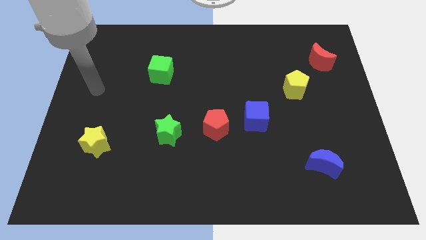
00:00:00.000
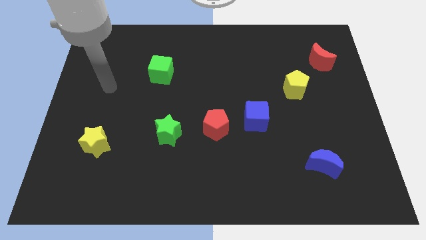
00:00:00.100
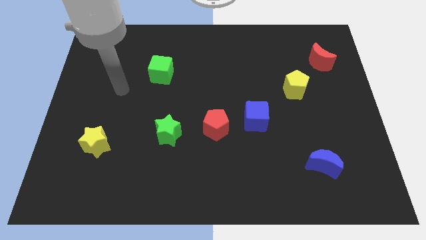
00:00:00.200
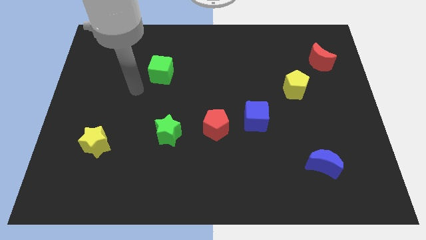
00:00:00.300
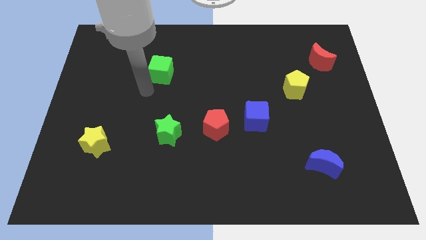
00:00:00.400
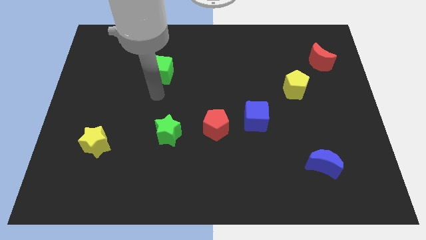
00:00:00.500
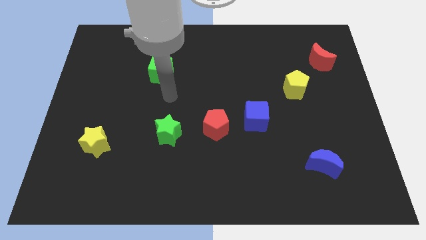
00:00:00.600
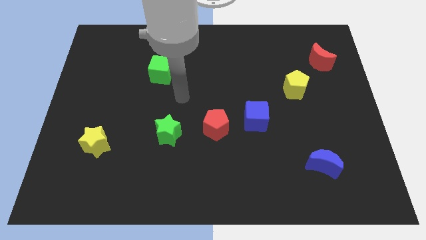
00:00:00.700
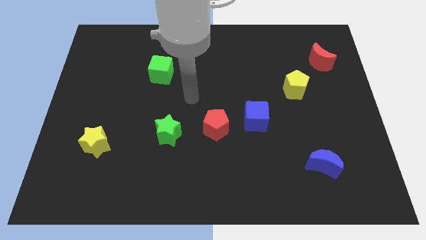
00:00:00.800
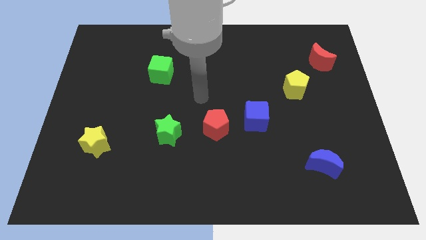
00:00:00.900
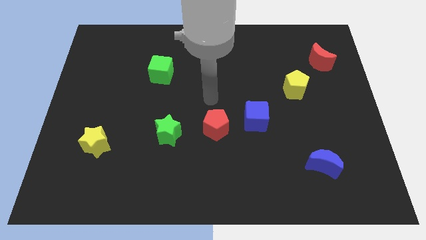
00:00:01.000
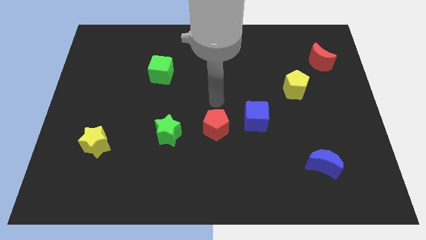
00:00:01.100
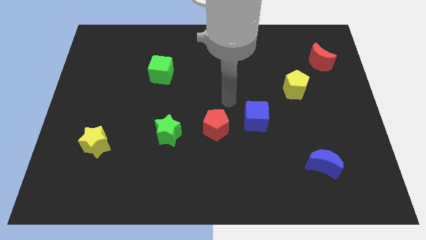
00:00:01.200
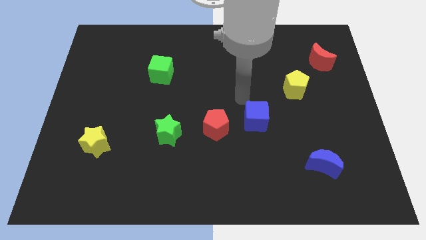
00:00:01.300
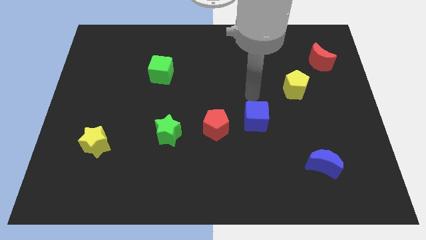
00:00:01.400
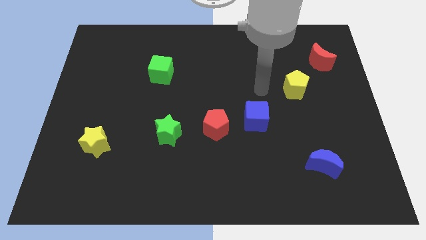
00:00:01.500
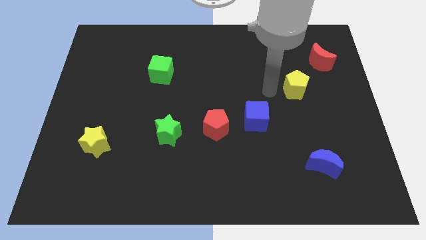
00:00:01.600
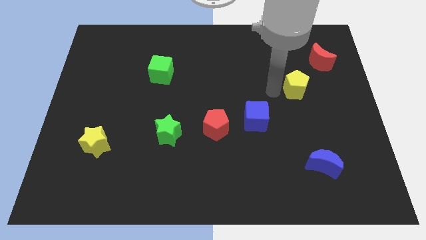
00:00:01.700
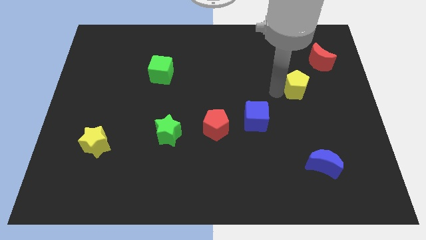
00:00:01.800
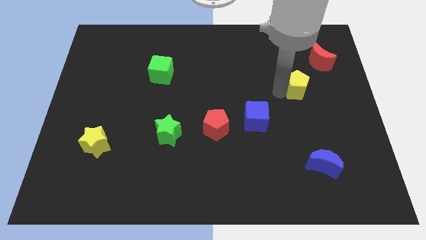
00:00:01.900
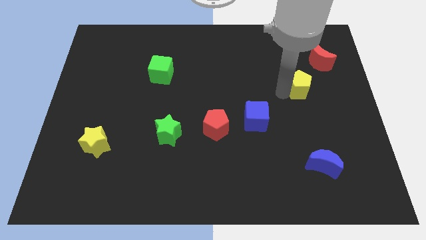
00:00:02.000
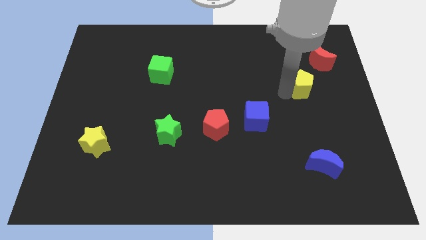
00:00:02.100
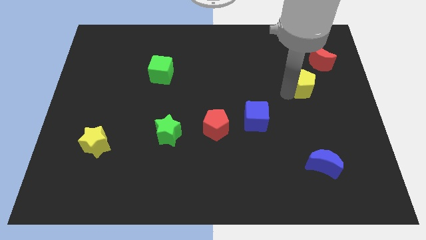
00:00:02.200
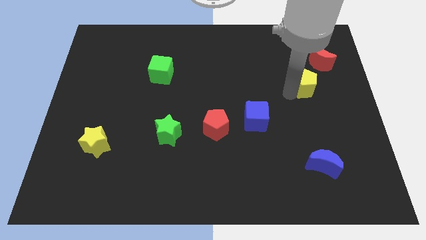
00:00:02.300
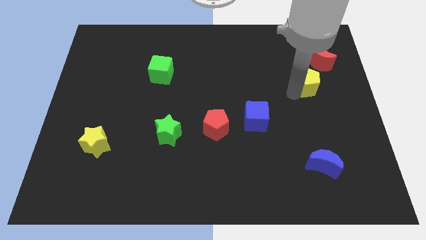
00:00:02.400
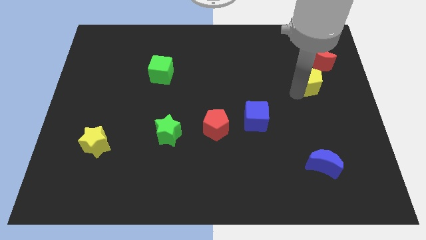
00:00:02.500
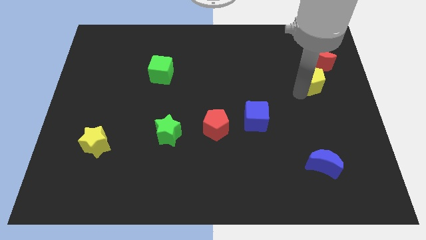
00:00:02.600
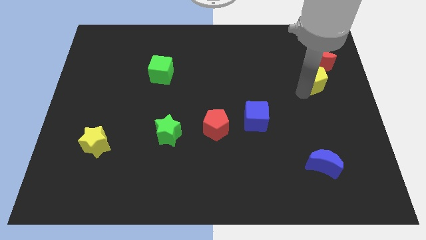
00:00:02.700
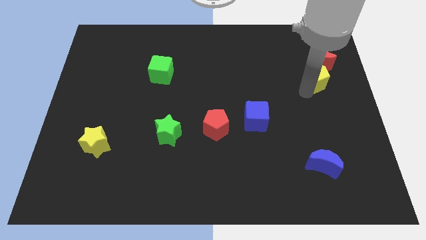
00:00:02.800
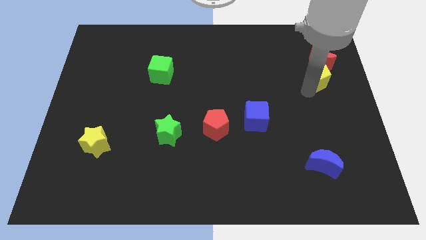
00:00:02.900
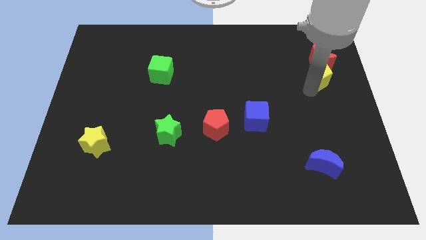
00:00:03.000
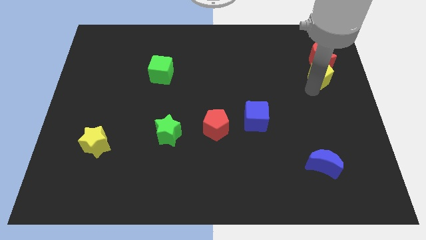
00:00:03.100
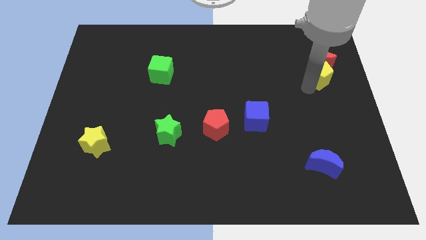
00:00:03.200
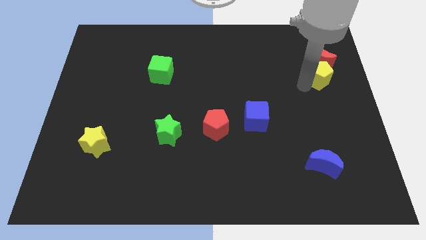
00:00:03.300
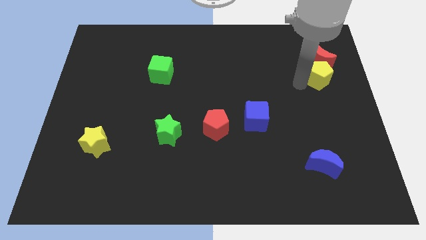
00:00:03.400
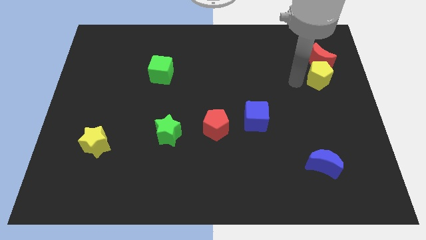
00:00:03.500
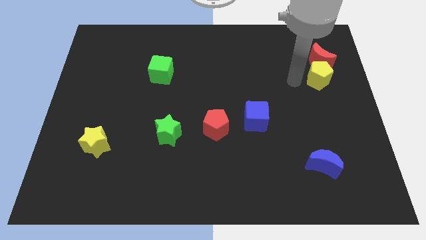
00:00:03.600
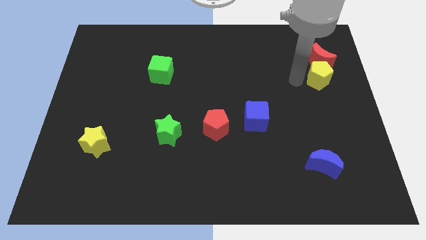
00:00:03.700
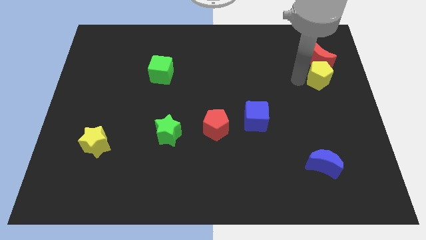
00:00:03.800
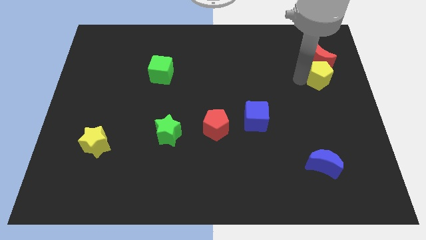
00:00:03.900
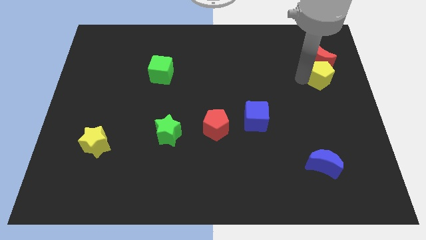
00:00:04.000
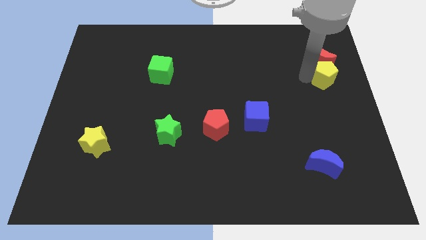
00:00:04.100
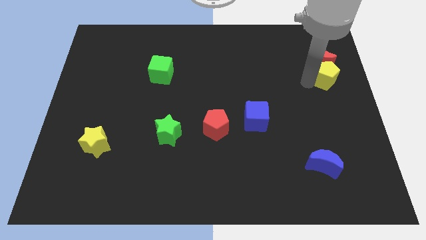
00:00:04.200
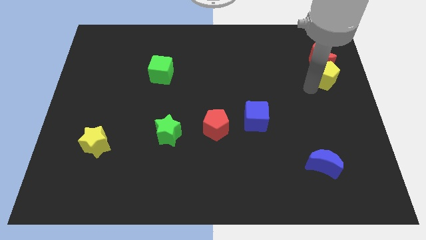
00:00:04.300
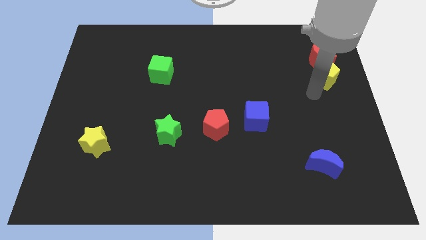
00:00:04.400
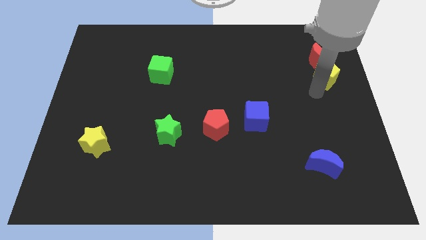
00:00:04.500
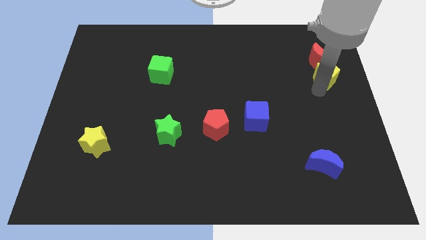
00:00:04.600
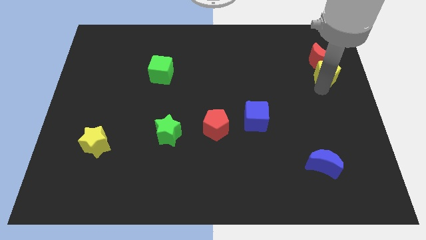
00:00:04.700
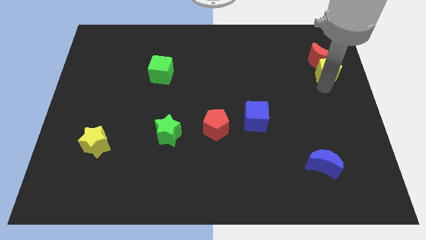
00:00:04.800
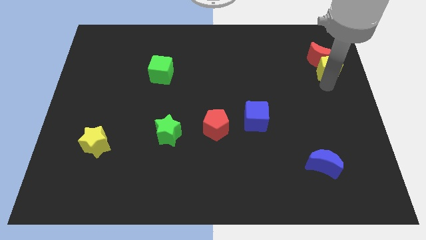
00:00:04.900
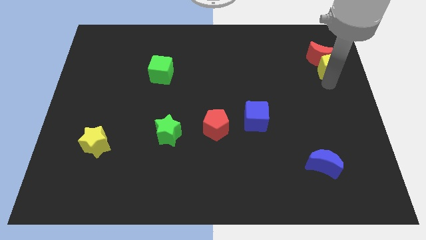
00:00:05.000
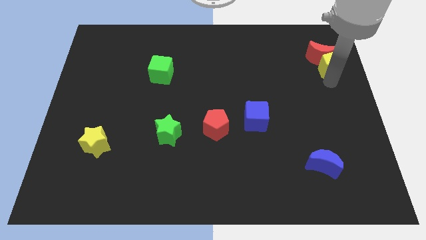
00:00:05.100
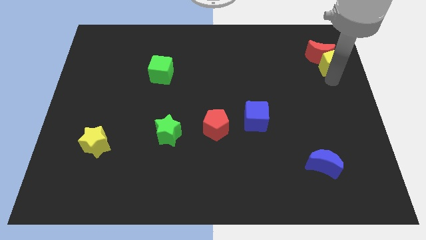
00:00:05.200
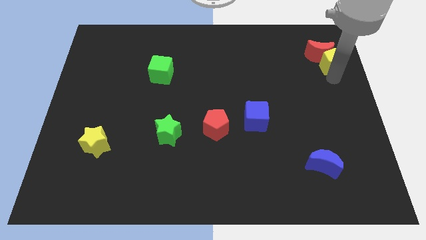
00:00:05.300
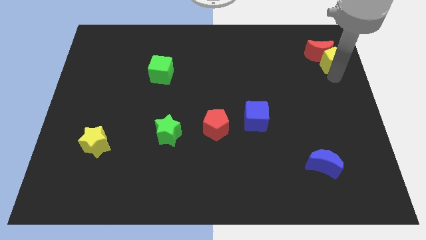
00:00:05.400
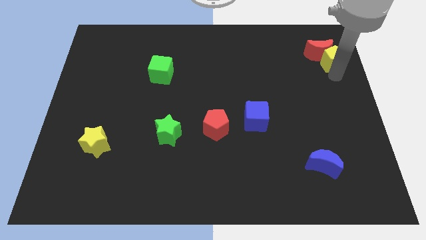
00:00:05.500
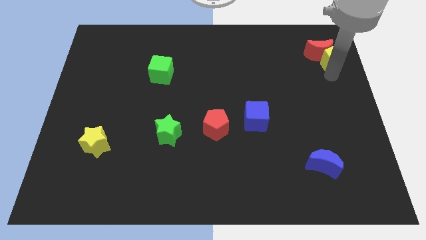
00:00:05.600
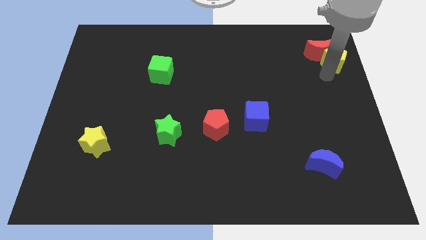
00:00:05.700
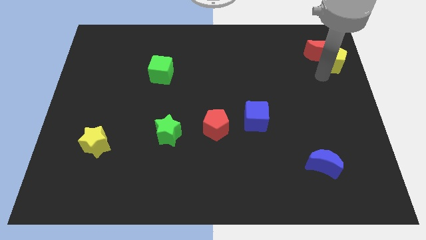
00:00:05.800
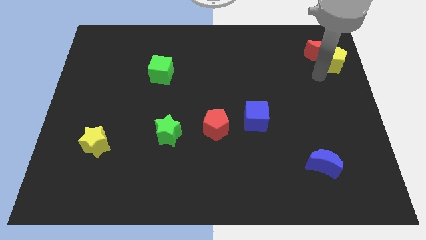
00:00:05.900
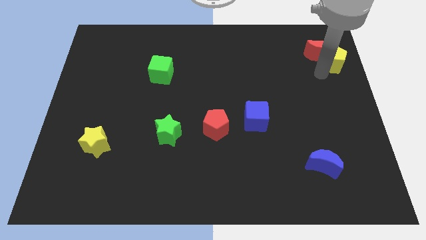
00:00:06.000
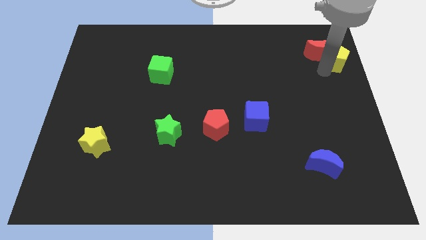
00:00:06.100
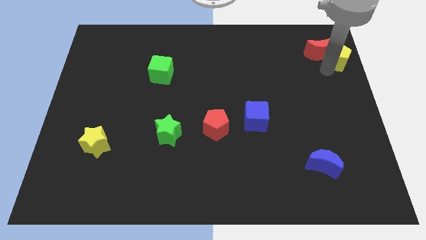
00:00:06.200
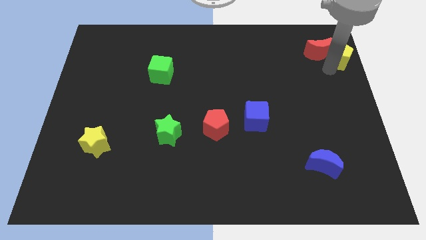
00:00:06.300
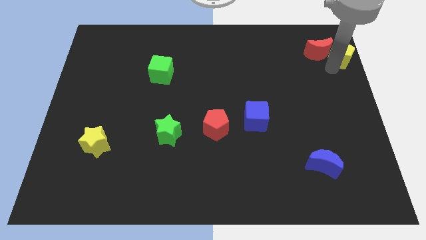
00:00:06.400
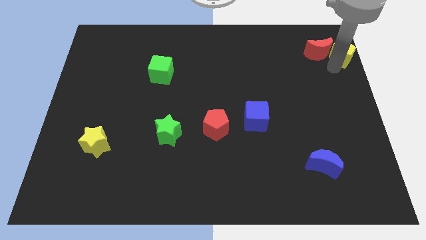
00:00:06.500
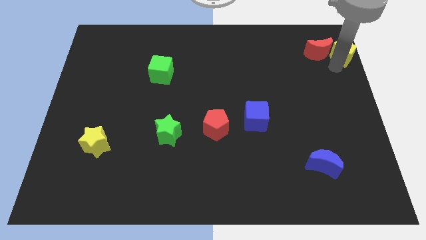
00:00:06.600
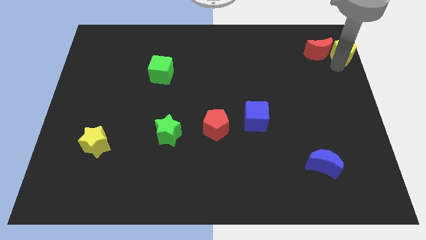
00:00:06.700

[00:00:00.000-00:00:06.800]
slide the yellow pentagon to the top right of the board
